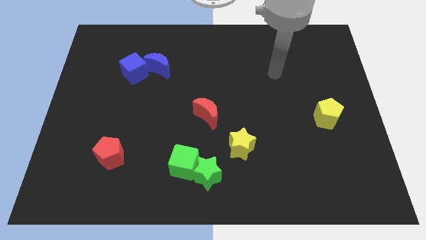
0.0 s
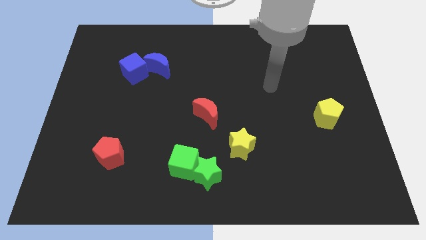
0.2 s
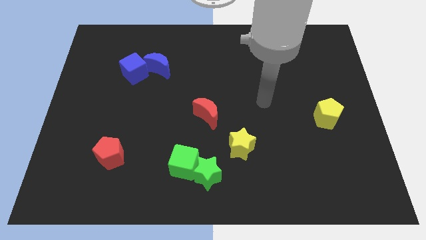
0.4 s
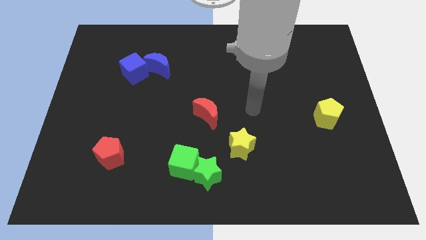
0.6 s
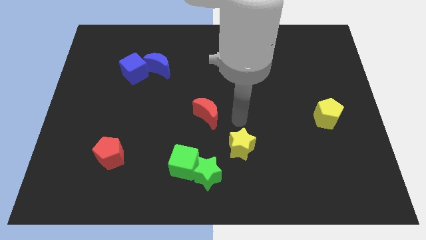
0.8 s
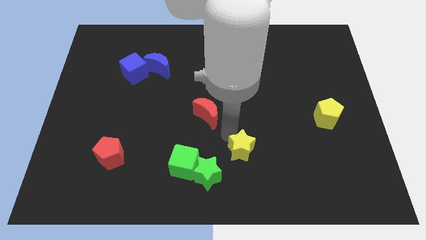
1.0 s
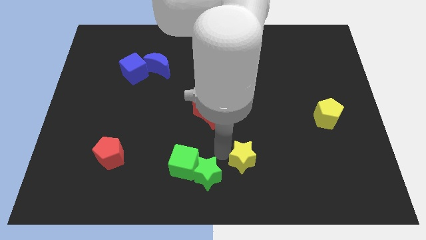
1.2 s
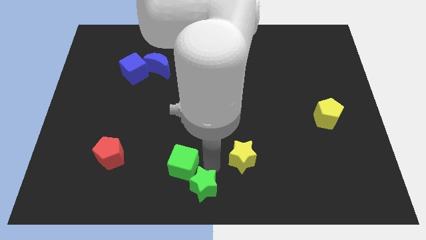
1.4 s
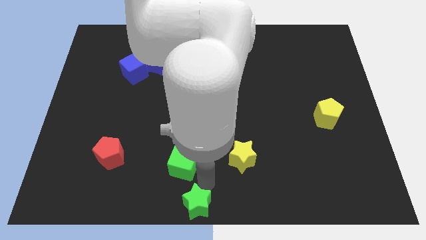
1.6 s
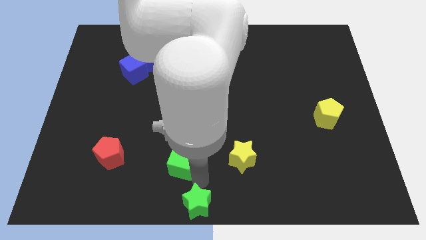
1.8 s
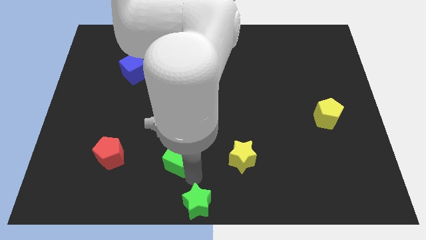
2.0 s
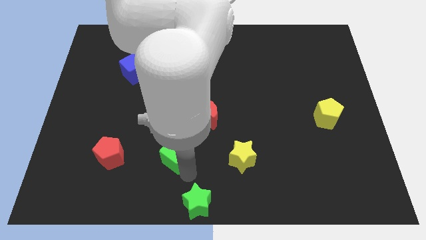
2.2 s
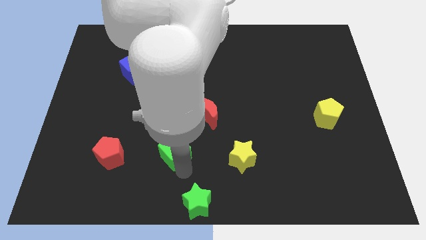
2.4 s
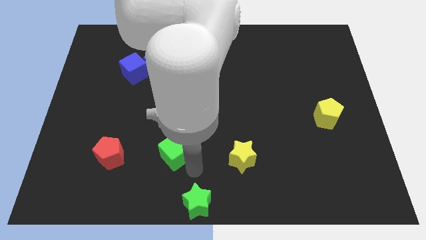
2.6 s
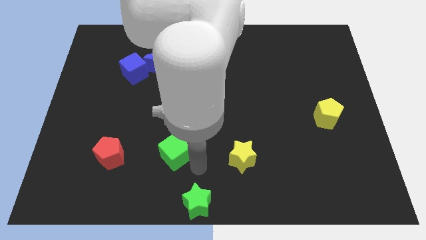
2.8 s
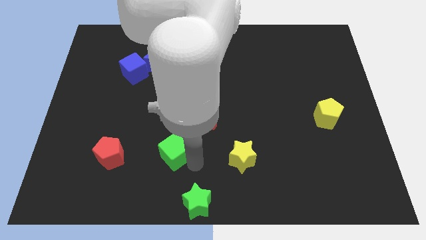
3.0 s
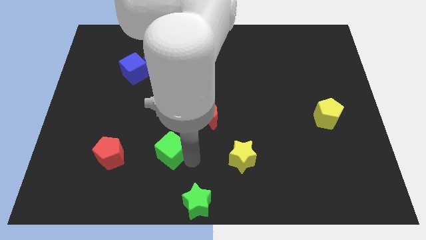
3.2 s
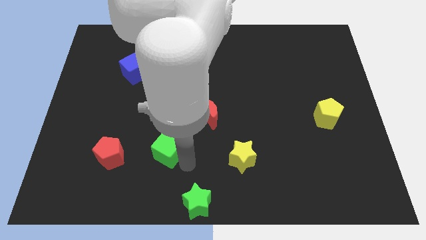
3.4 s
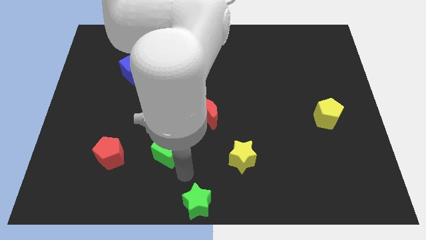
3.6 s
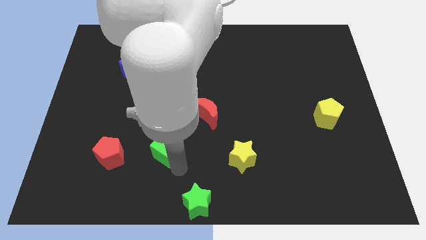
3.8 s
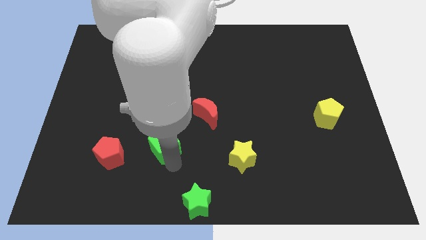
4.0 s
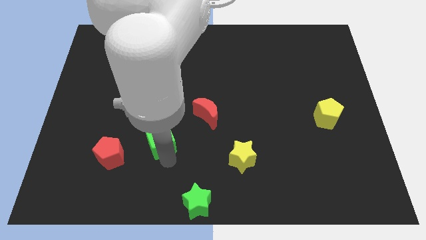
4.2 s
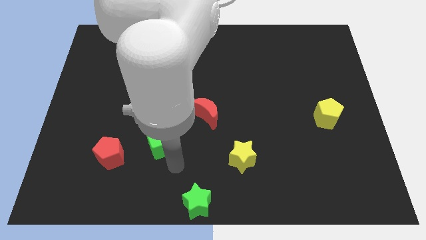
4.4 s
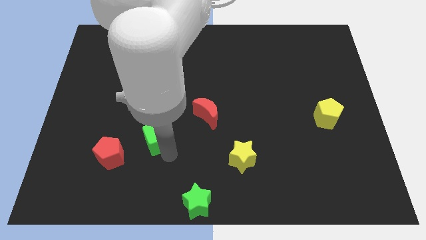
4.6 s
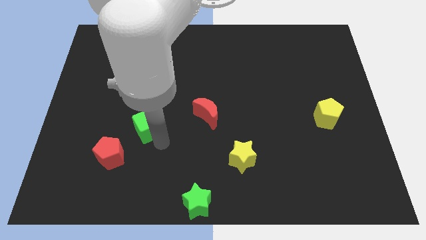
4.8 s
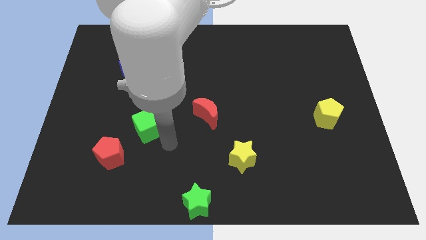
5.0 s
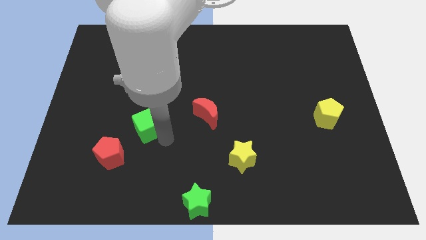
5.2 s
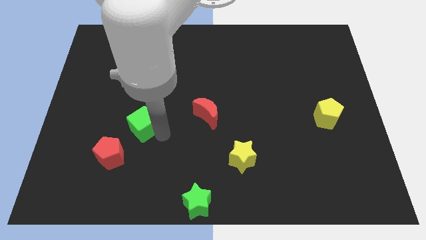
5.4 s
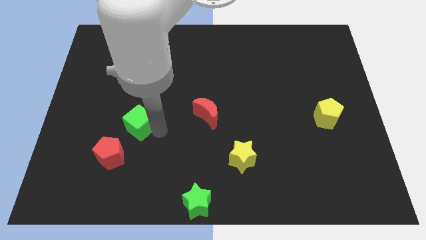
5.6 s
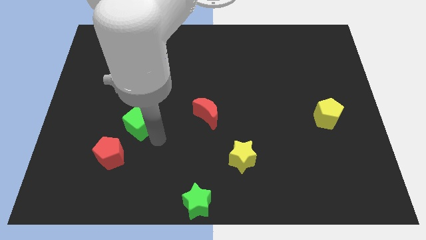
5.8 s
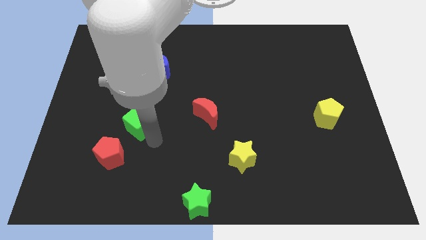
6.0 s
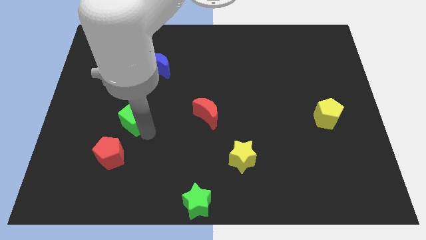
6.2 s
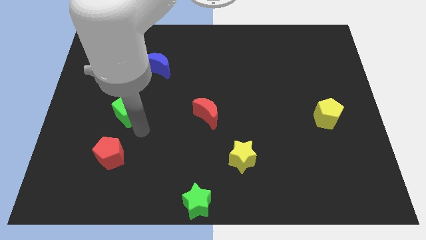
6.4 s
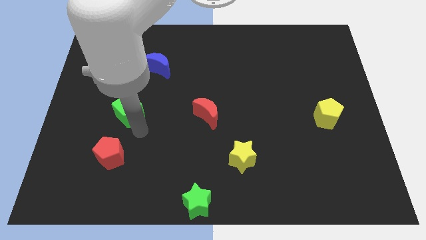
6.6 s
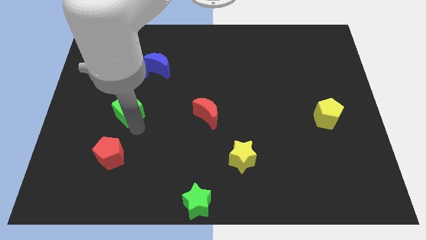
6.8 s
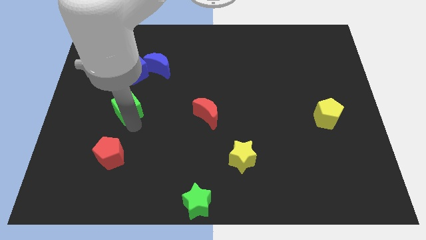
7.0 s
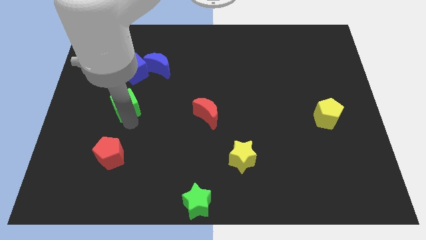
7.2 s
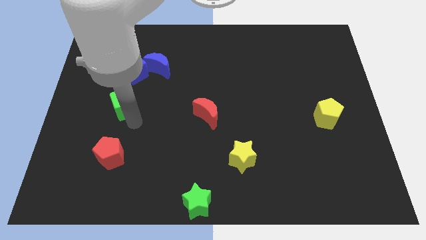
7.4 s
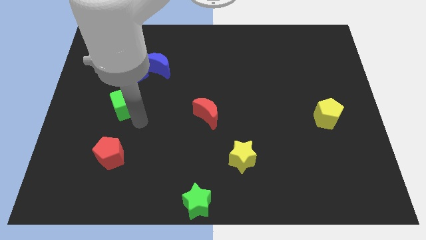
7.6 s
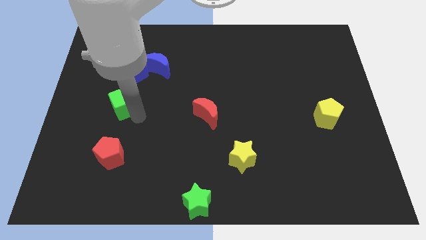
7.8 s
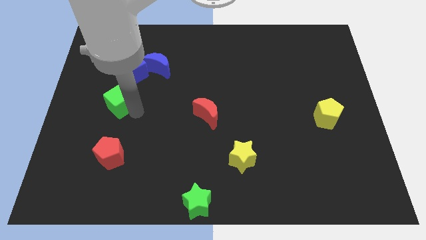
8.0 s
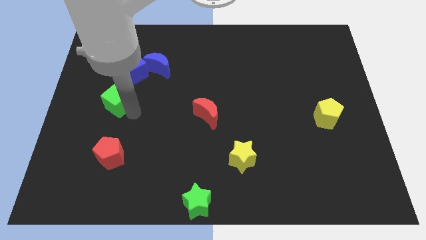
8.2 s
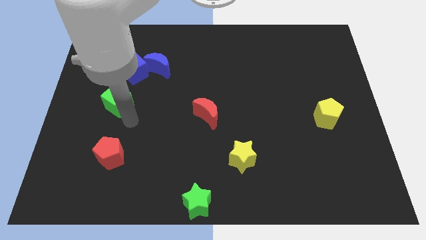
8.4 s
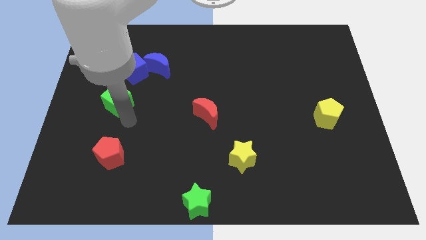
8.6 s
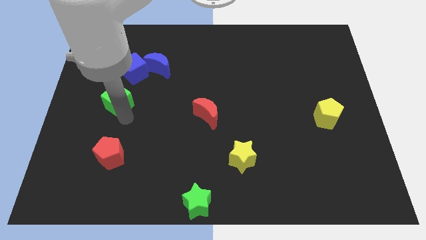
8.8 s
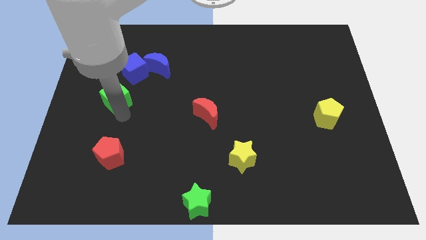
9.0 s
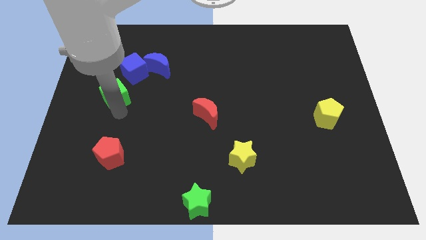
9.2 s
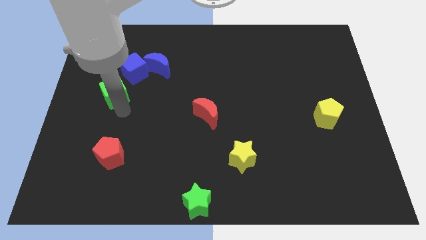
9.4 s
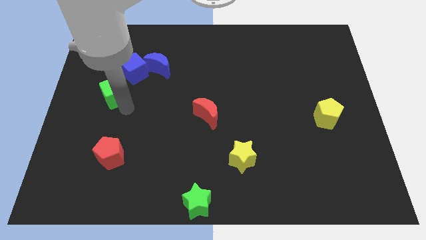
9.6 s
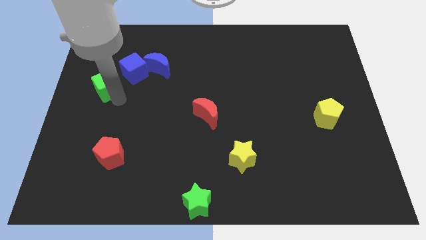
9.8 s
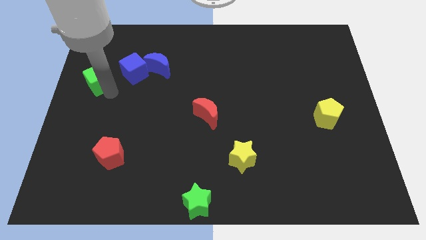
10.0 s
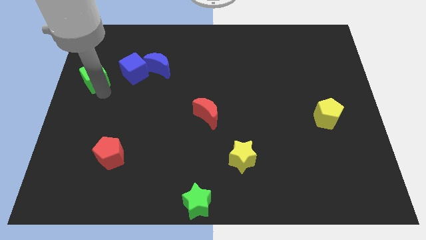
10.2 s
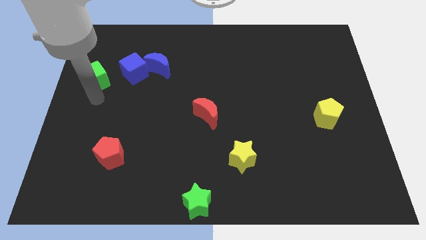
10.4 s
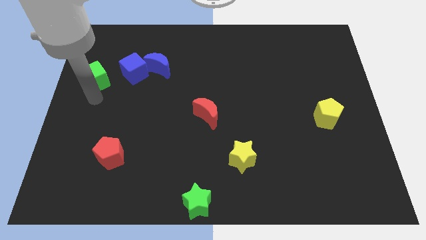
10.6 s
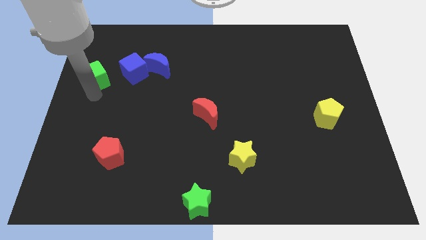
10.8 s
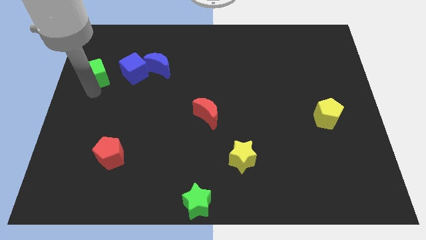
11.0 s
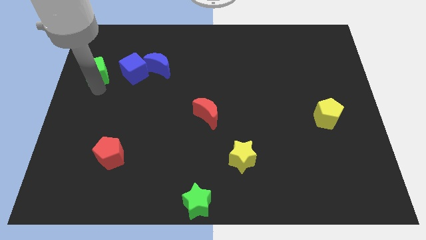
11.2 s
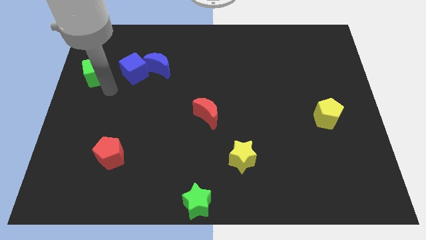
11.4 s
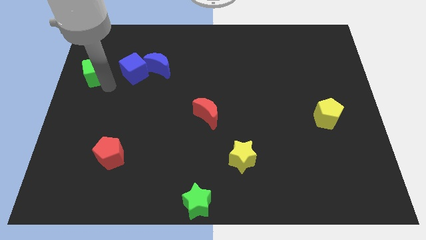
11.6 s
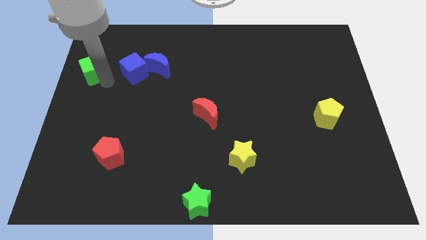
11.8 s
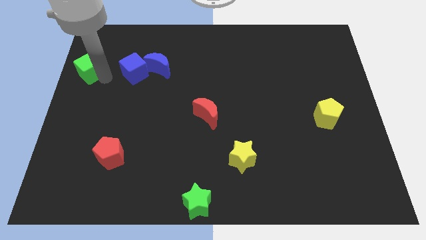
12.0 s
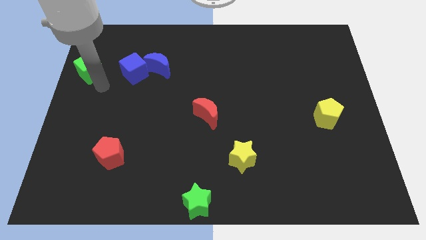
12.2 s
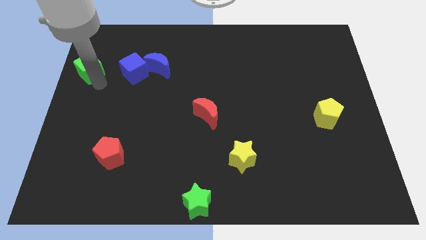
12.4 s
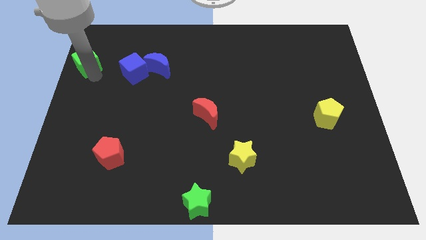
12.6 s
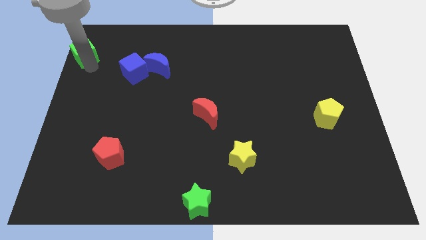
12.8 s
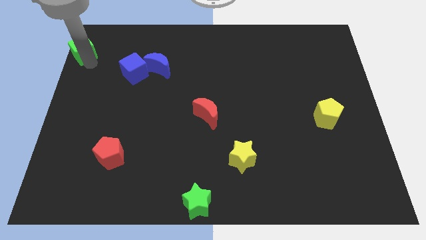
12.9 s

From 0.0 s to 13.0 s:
slide the green cube to the upper left corner
